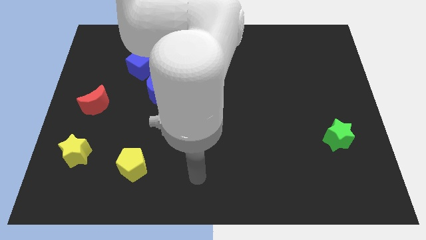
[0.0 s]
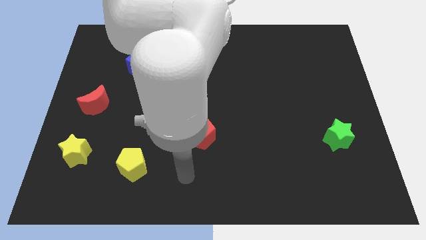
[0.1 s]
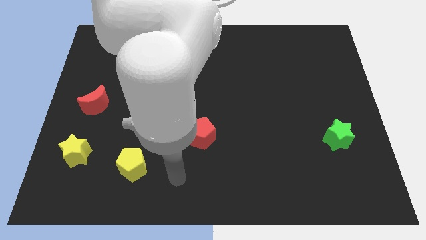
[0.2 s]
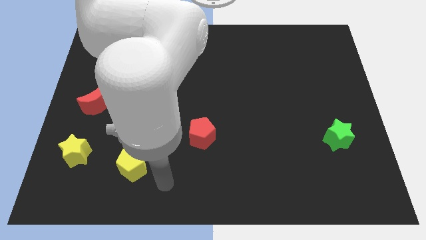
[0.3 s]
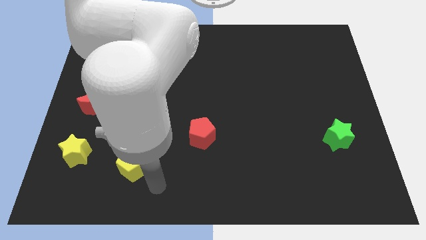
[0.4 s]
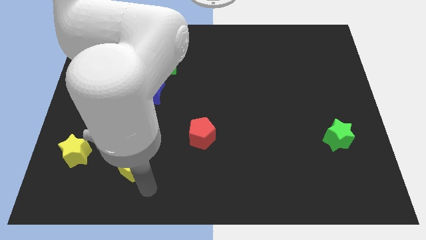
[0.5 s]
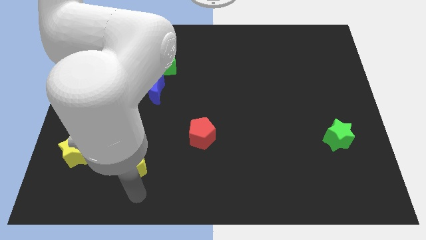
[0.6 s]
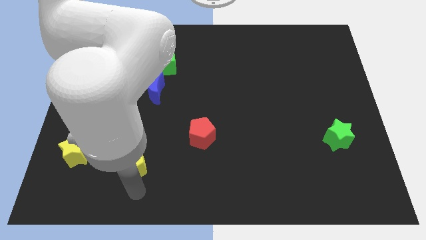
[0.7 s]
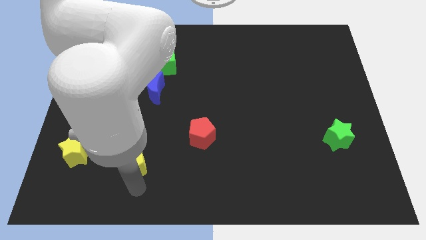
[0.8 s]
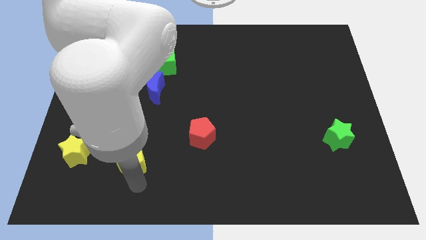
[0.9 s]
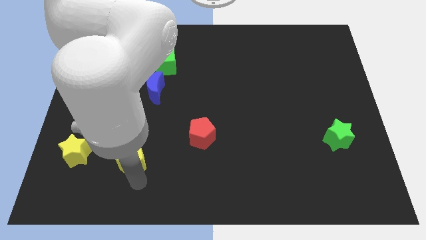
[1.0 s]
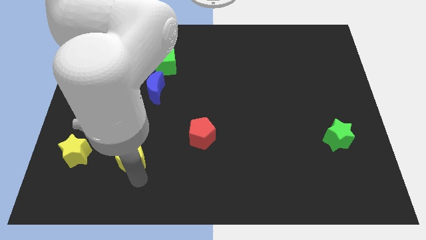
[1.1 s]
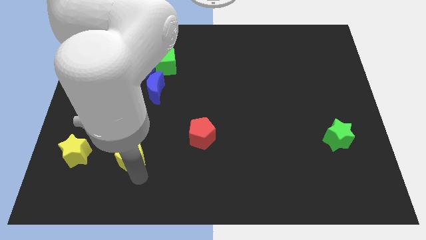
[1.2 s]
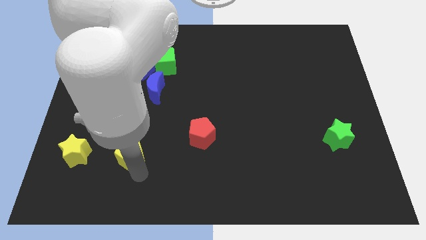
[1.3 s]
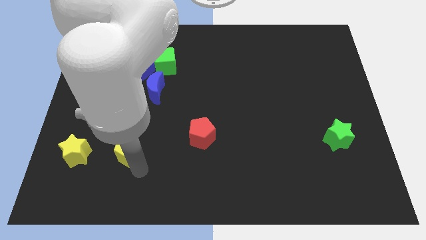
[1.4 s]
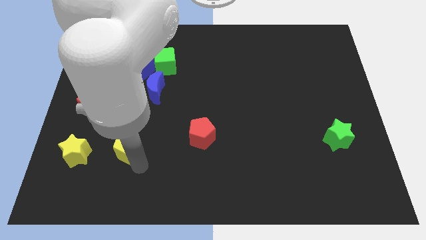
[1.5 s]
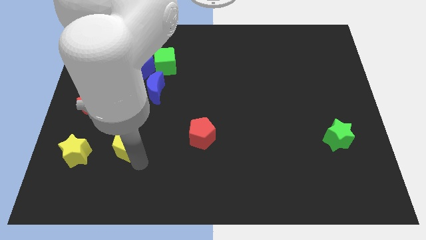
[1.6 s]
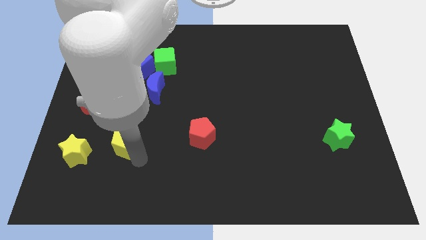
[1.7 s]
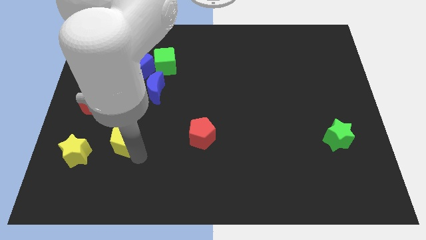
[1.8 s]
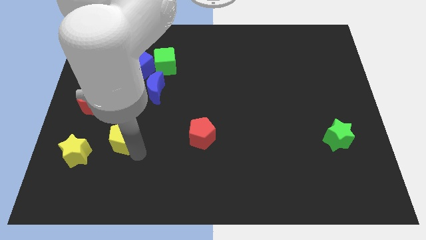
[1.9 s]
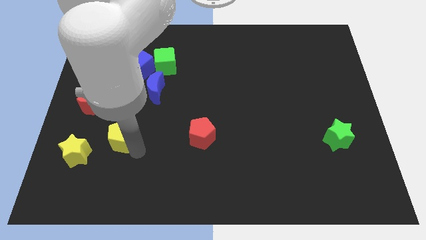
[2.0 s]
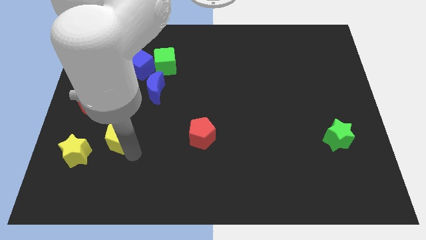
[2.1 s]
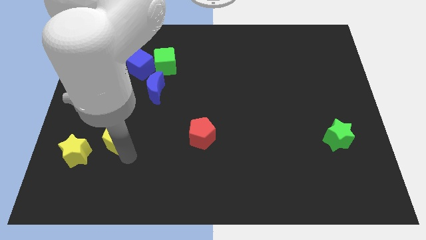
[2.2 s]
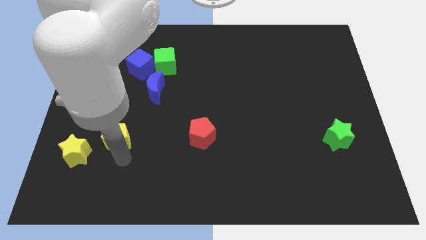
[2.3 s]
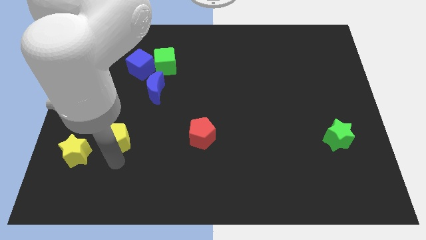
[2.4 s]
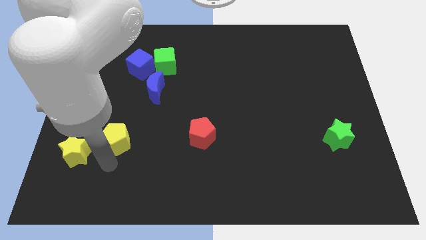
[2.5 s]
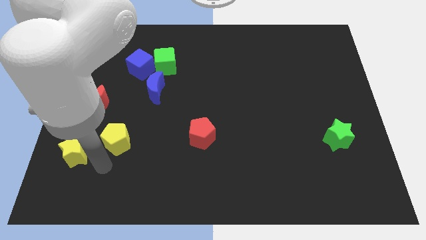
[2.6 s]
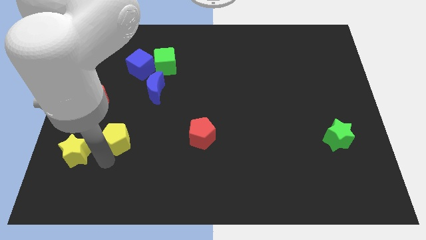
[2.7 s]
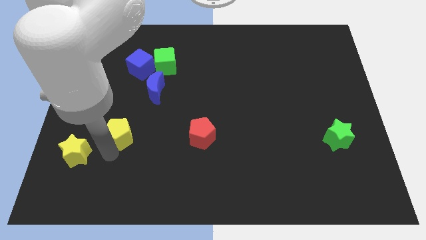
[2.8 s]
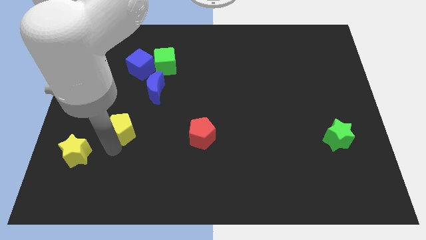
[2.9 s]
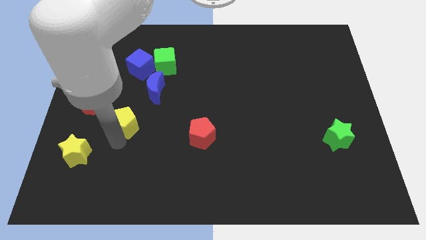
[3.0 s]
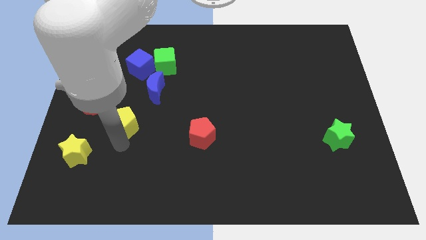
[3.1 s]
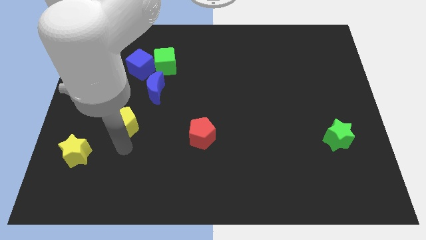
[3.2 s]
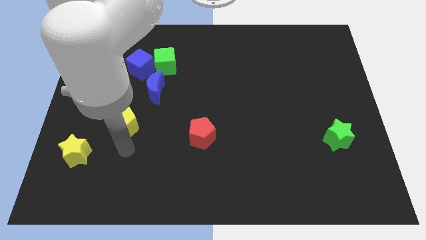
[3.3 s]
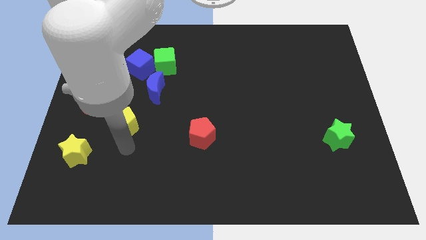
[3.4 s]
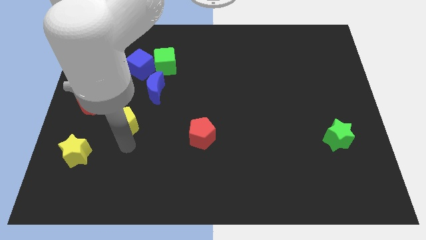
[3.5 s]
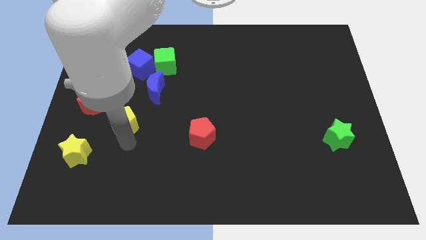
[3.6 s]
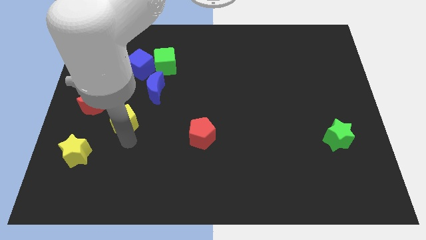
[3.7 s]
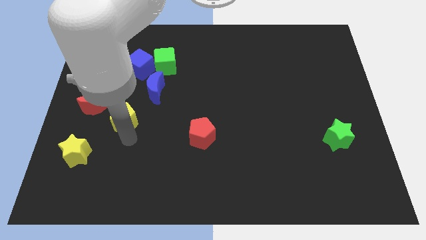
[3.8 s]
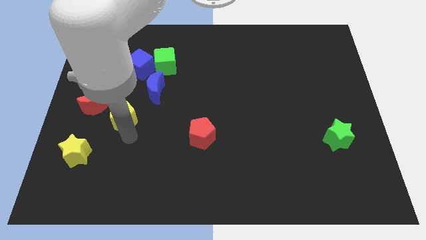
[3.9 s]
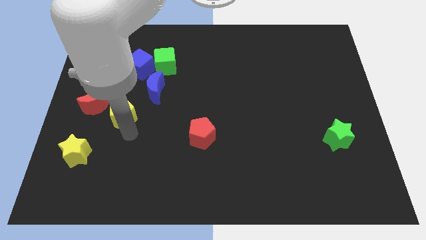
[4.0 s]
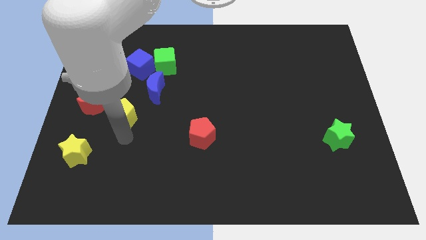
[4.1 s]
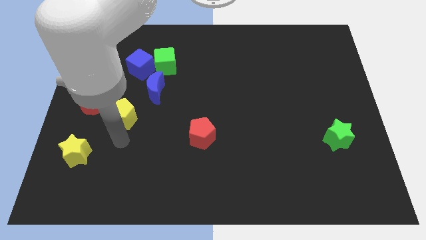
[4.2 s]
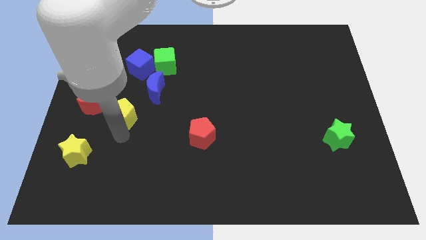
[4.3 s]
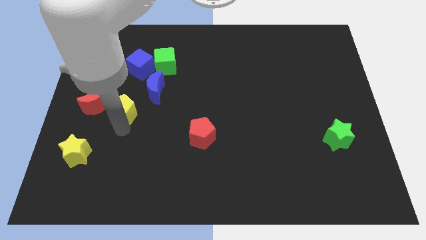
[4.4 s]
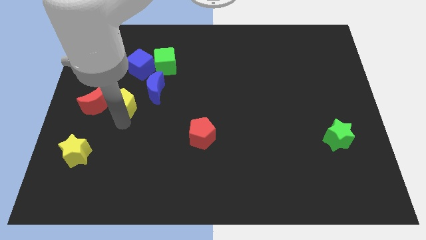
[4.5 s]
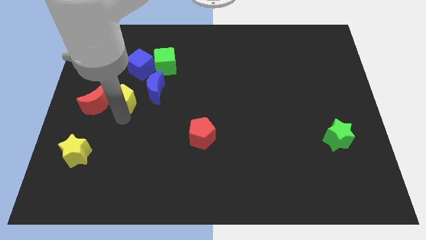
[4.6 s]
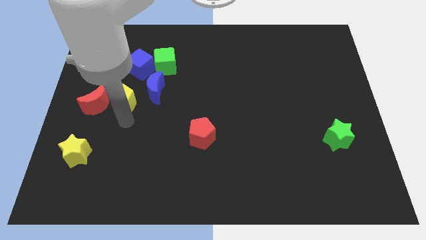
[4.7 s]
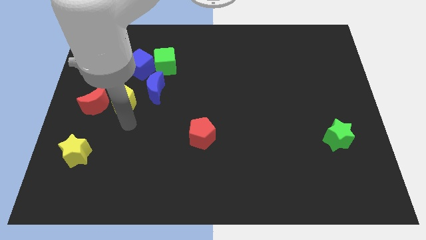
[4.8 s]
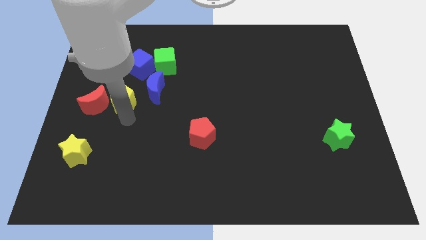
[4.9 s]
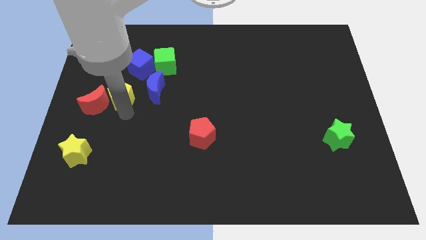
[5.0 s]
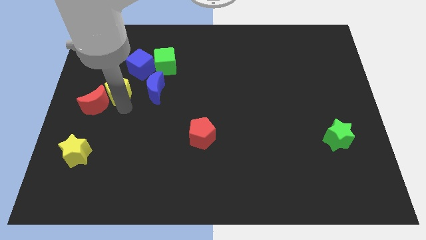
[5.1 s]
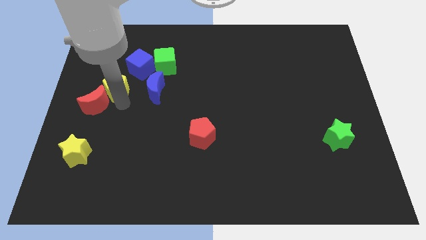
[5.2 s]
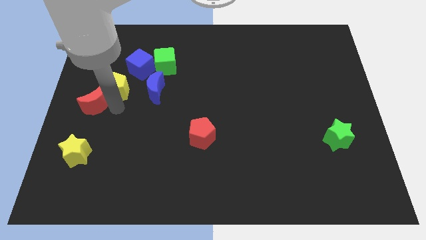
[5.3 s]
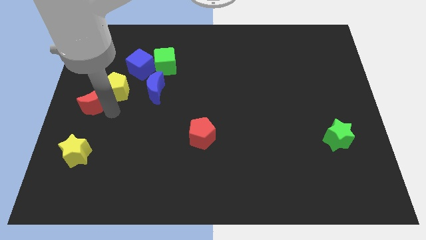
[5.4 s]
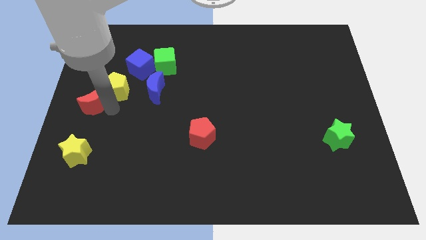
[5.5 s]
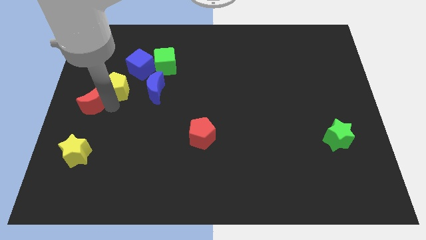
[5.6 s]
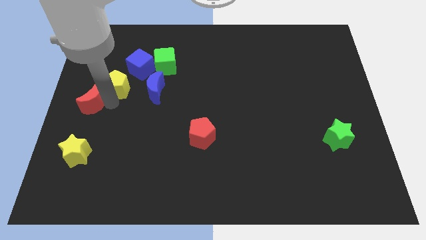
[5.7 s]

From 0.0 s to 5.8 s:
move the yellow pentagon upwards

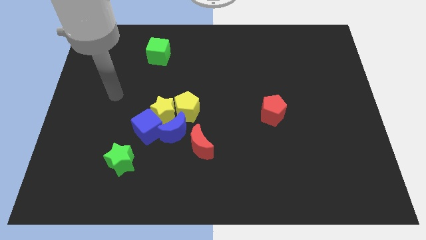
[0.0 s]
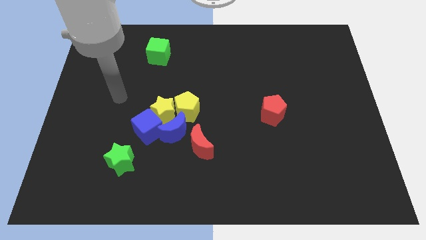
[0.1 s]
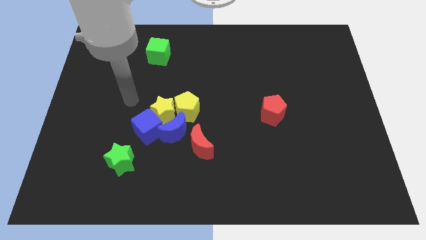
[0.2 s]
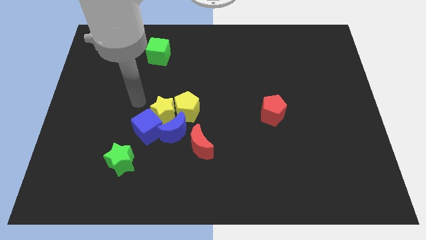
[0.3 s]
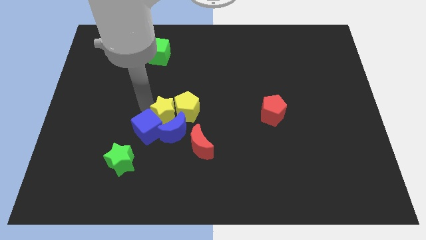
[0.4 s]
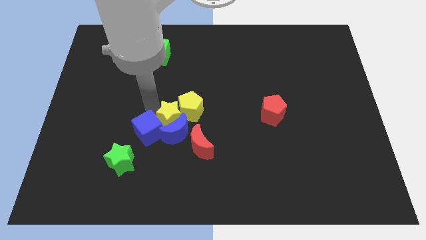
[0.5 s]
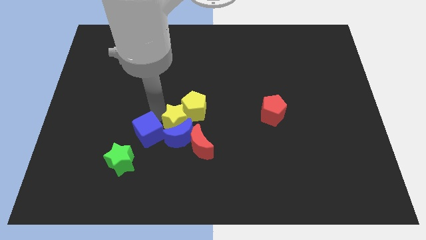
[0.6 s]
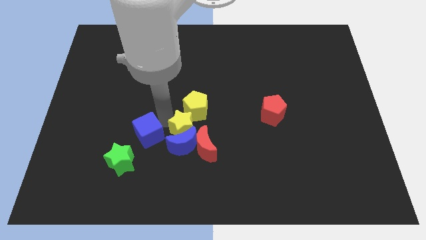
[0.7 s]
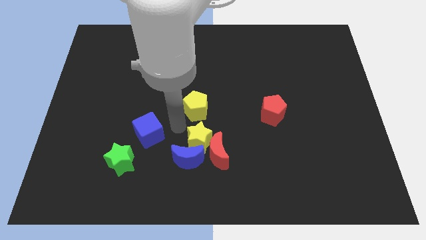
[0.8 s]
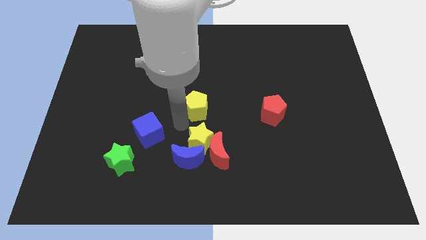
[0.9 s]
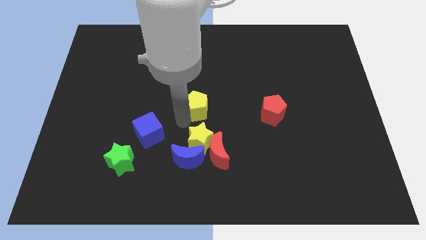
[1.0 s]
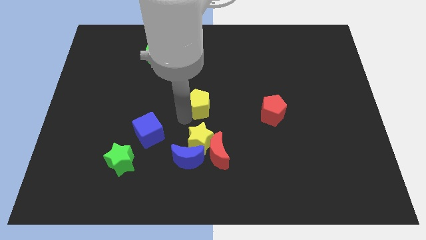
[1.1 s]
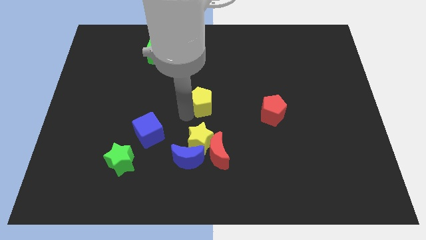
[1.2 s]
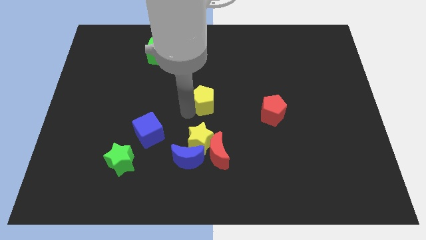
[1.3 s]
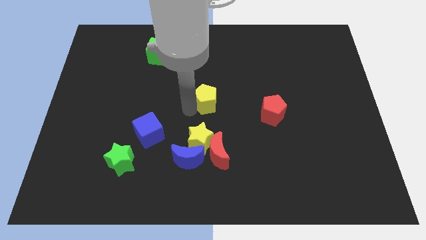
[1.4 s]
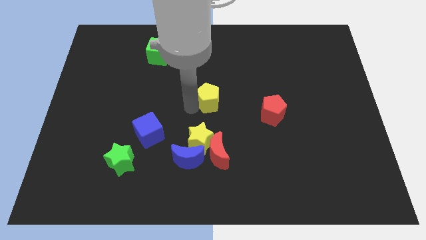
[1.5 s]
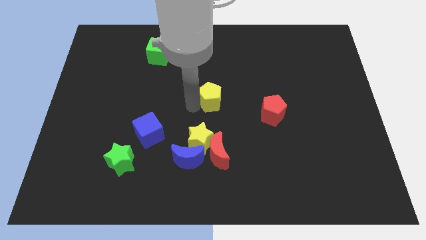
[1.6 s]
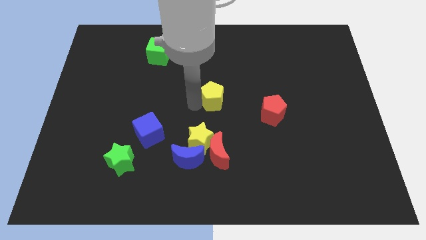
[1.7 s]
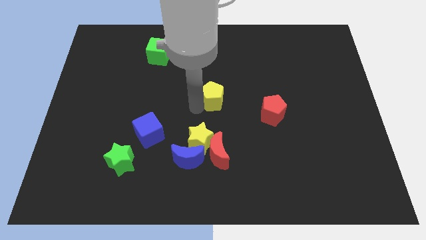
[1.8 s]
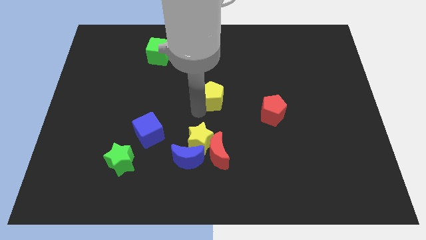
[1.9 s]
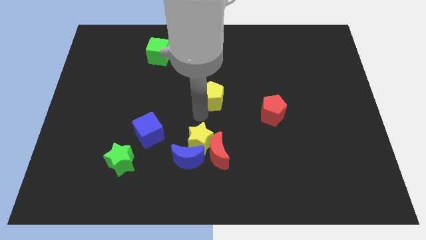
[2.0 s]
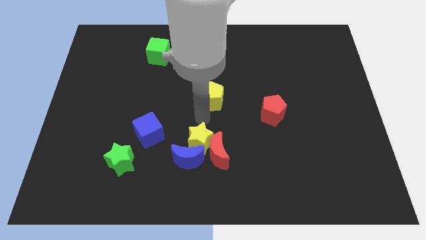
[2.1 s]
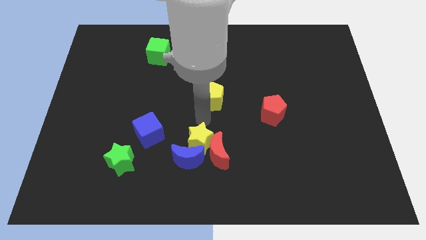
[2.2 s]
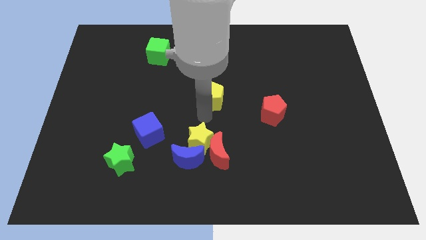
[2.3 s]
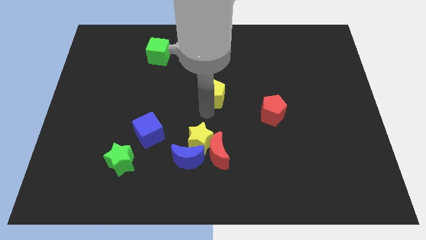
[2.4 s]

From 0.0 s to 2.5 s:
slightly move the yellow pentagon upwards and right

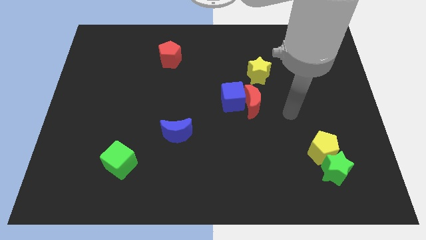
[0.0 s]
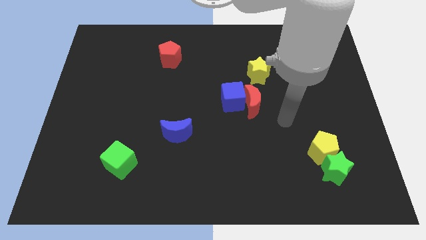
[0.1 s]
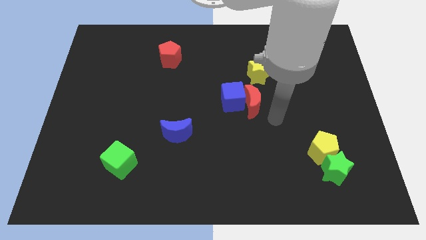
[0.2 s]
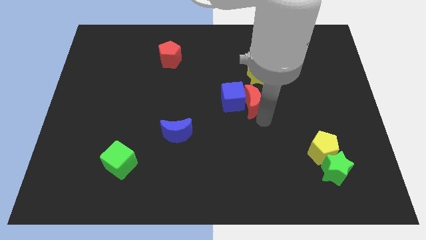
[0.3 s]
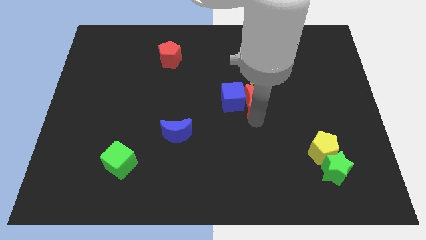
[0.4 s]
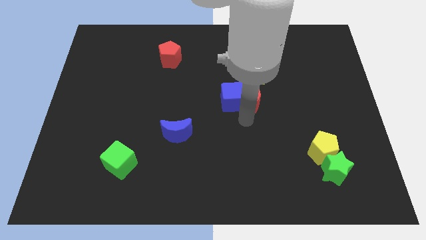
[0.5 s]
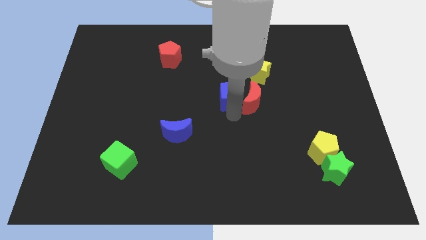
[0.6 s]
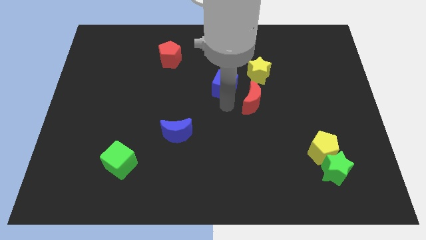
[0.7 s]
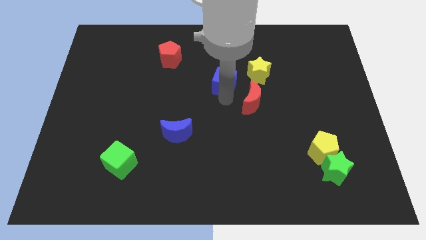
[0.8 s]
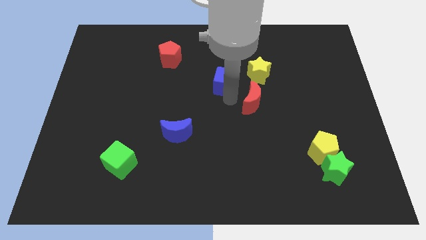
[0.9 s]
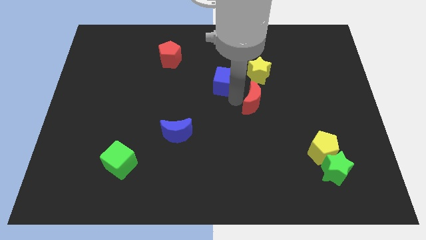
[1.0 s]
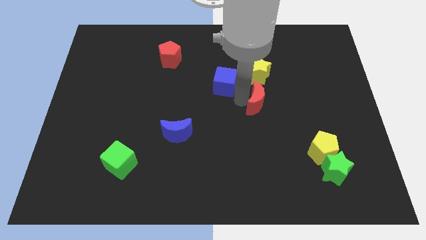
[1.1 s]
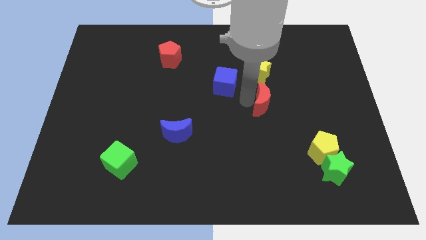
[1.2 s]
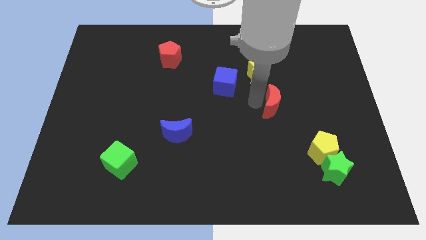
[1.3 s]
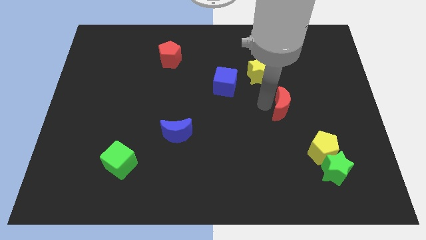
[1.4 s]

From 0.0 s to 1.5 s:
move the red moon a little to the right
